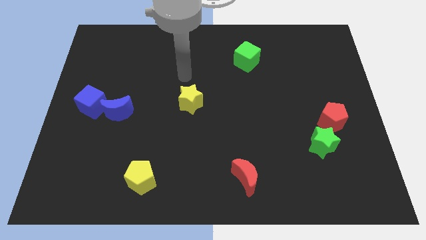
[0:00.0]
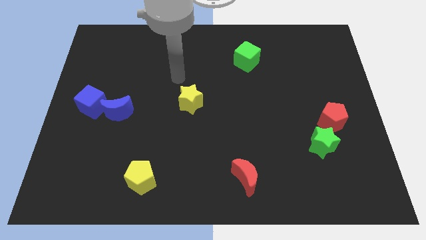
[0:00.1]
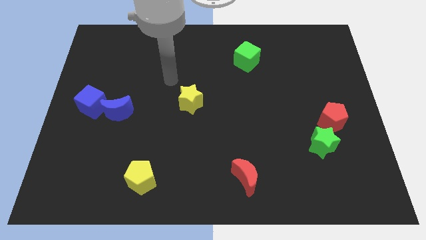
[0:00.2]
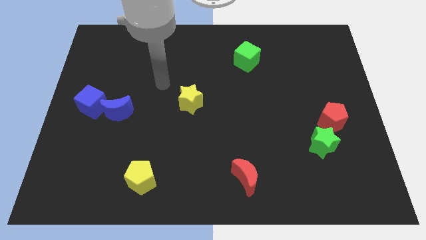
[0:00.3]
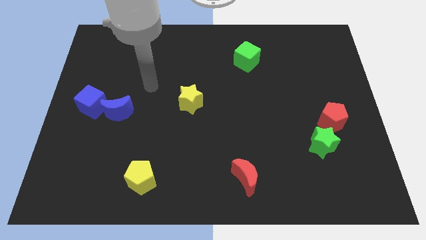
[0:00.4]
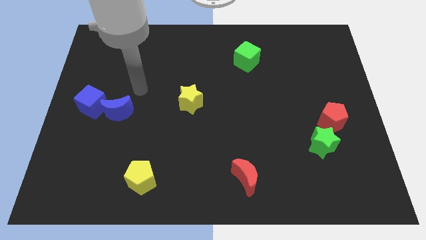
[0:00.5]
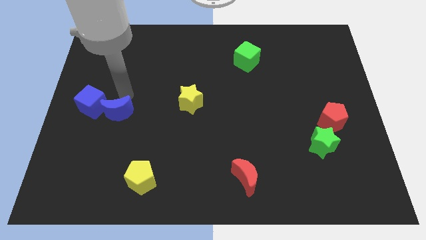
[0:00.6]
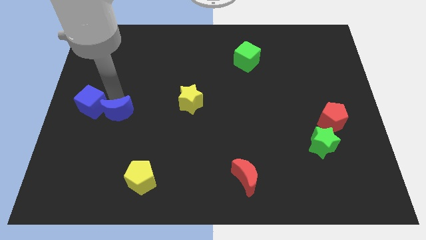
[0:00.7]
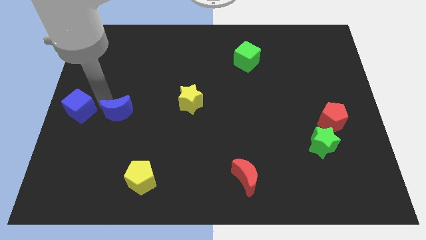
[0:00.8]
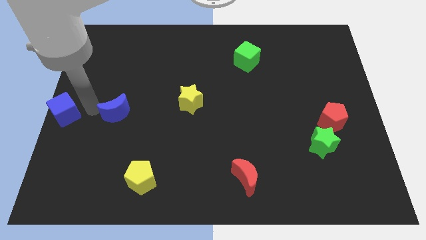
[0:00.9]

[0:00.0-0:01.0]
separate the blue moon from the blue cube

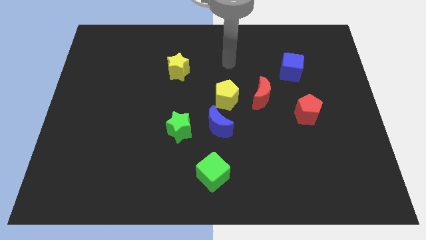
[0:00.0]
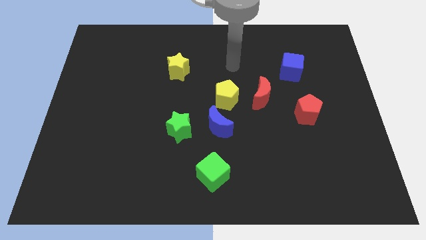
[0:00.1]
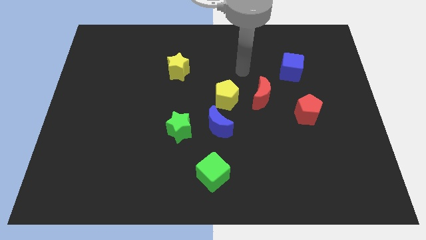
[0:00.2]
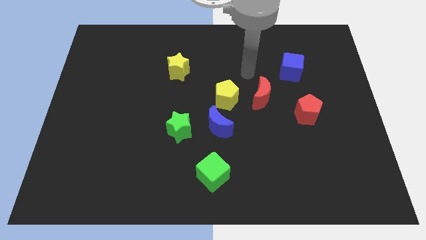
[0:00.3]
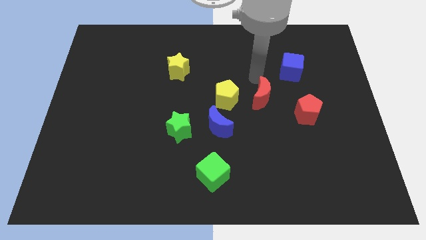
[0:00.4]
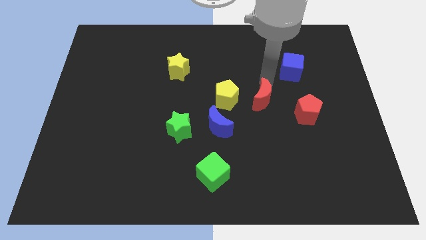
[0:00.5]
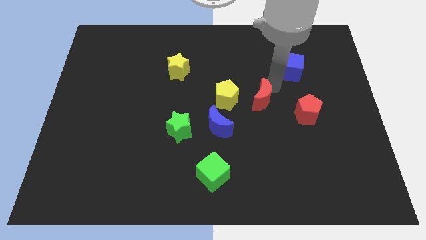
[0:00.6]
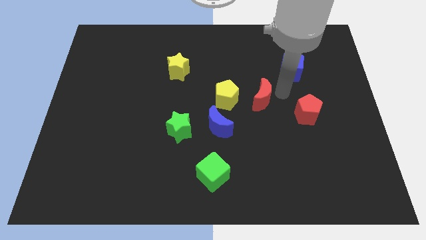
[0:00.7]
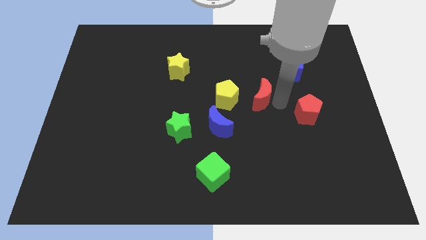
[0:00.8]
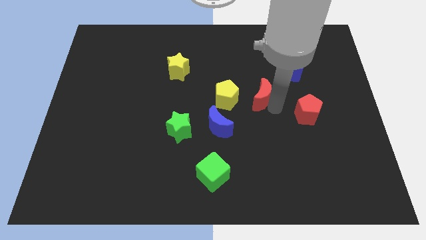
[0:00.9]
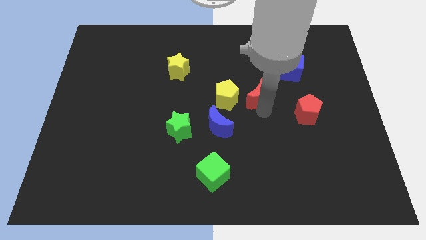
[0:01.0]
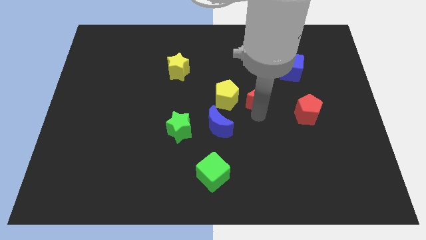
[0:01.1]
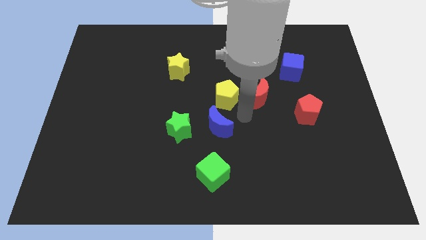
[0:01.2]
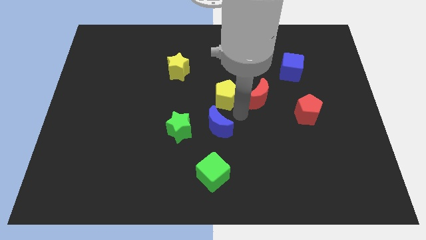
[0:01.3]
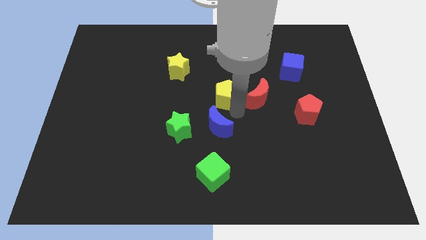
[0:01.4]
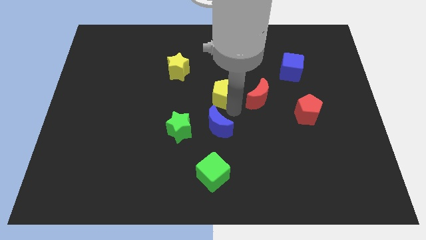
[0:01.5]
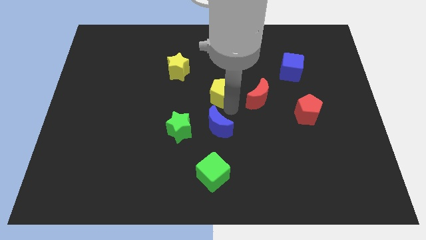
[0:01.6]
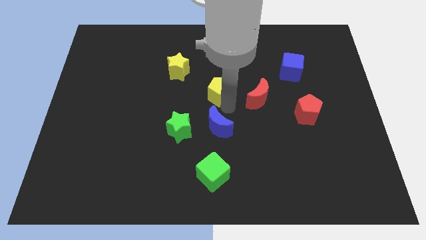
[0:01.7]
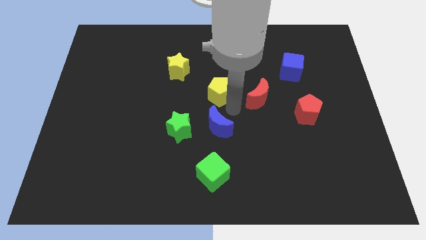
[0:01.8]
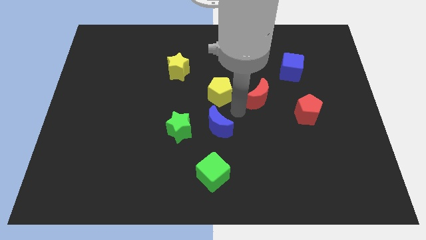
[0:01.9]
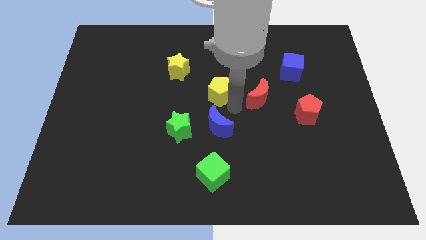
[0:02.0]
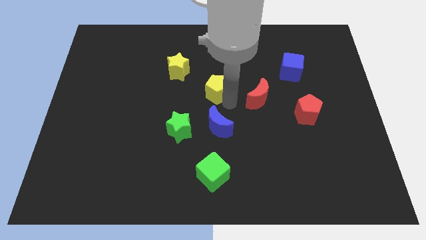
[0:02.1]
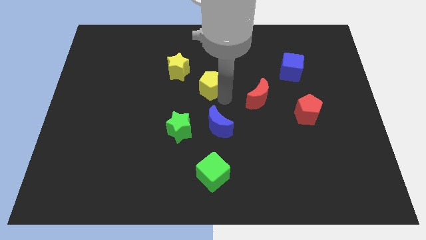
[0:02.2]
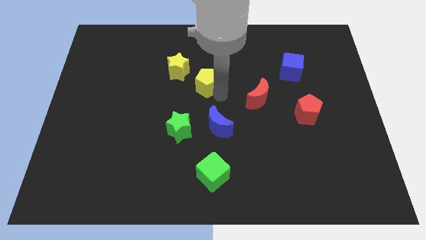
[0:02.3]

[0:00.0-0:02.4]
pull the yellow pentagon apart from the blue moon and red moon

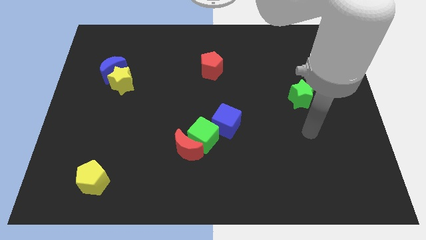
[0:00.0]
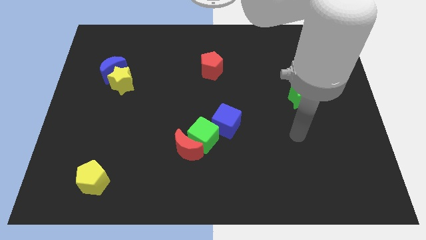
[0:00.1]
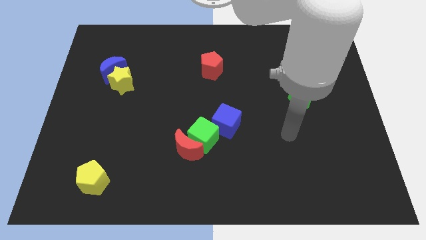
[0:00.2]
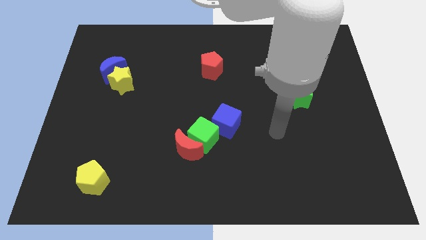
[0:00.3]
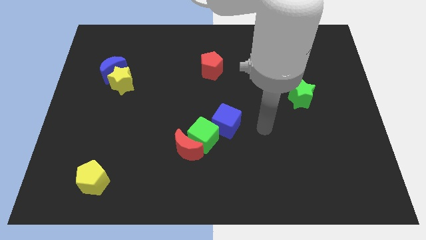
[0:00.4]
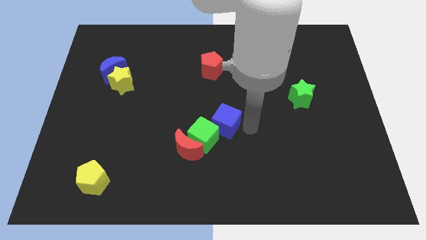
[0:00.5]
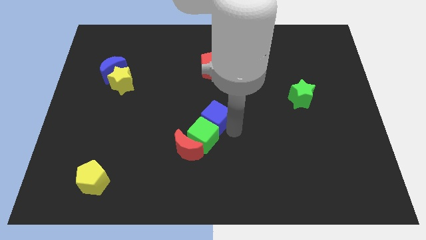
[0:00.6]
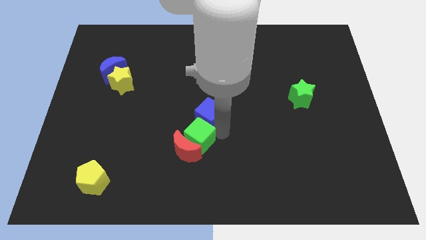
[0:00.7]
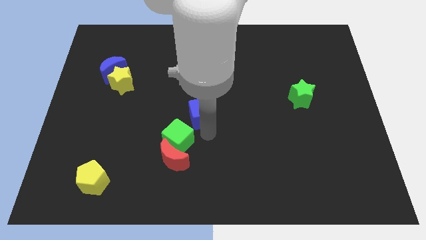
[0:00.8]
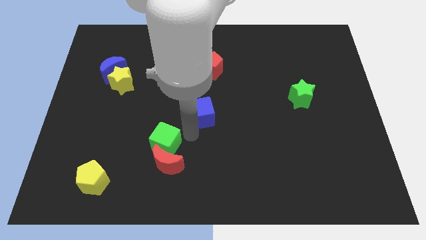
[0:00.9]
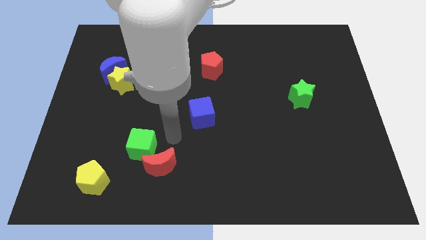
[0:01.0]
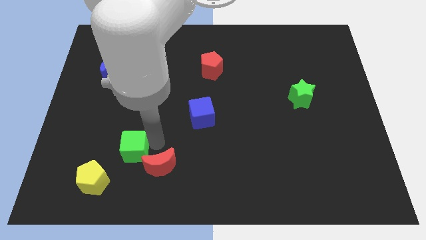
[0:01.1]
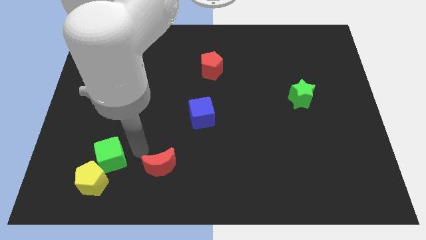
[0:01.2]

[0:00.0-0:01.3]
pull the red moon apart from the green cube

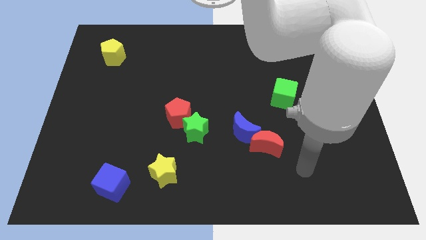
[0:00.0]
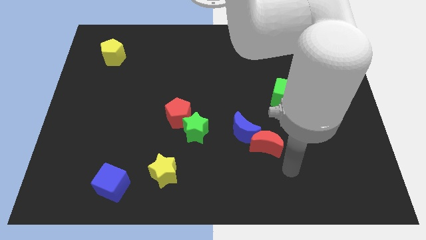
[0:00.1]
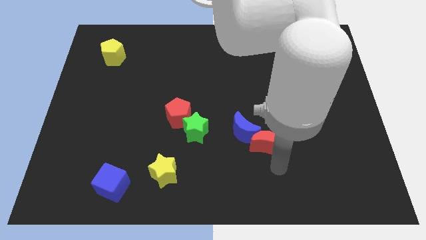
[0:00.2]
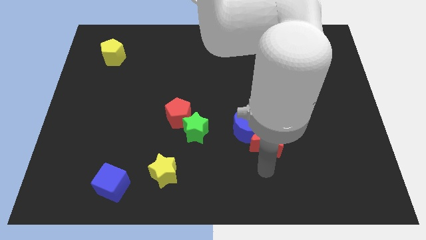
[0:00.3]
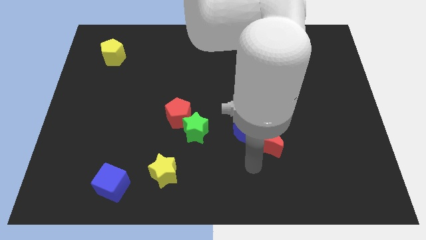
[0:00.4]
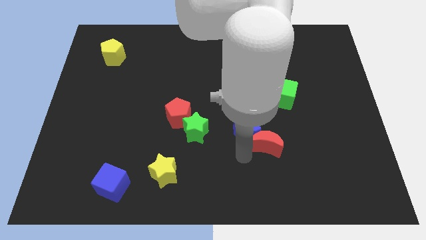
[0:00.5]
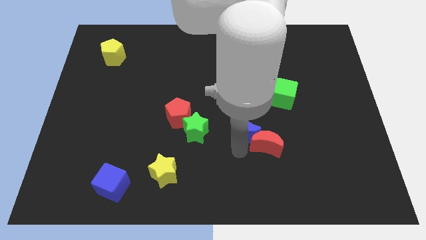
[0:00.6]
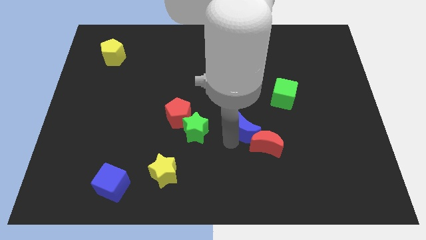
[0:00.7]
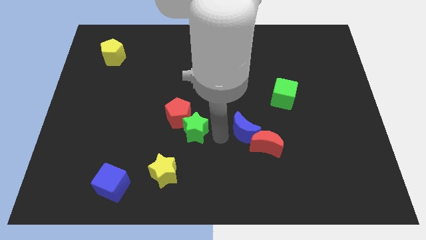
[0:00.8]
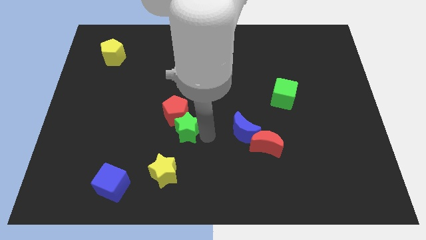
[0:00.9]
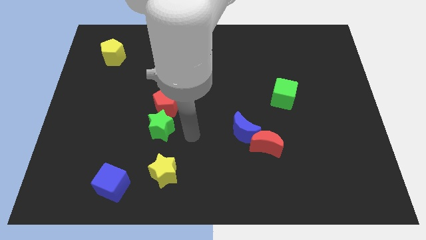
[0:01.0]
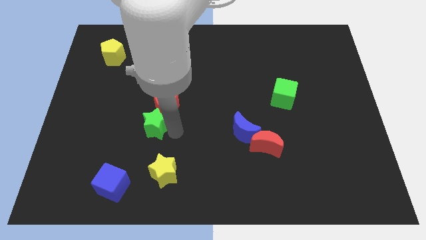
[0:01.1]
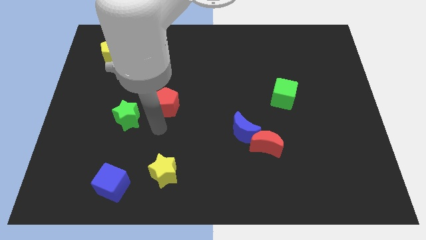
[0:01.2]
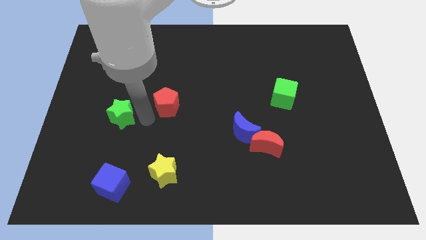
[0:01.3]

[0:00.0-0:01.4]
separate the red pentagon from the green star

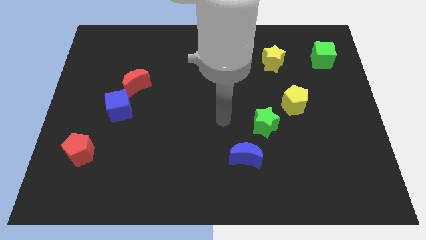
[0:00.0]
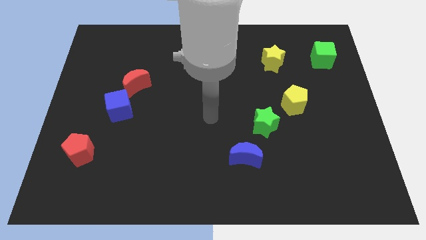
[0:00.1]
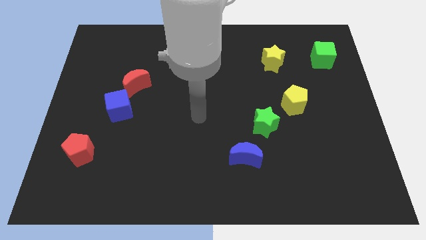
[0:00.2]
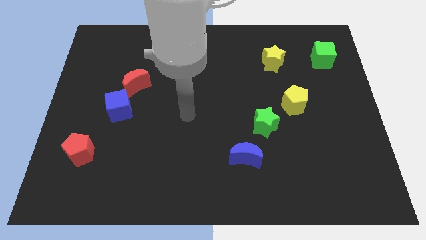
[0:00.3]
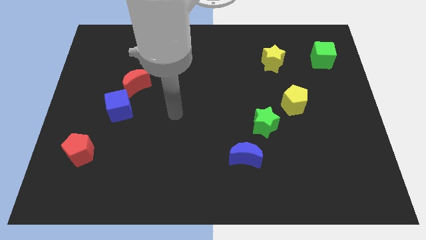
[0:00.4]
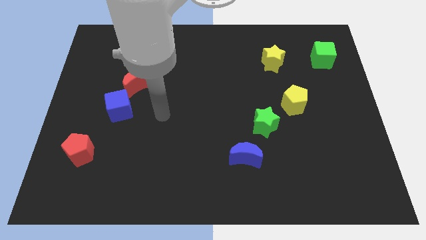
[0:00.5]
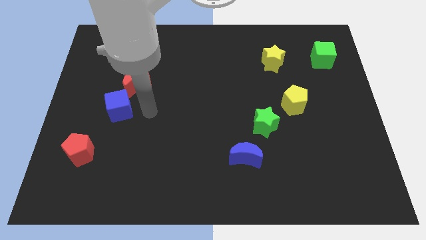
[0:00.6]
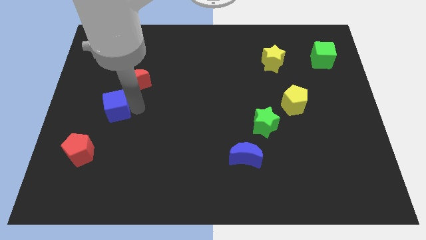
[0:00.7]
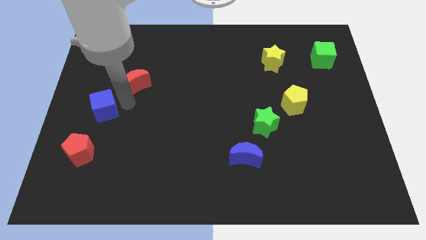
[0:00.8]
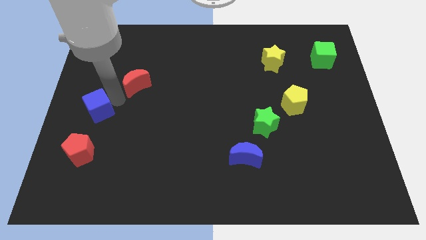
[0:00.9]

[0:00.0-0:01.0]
separate the red moon from the blue cube

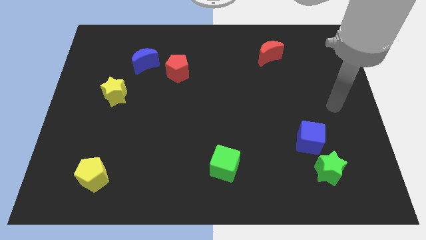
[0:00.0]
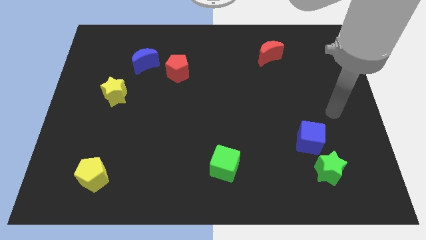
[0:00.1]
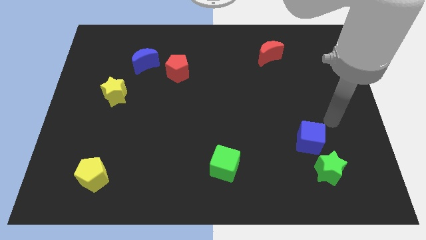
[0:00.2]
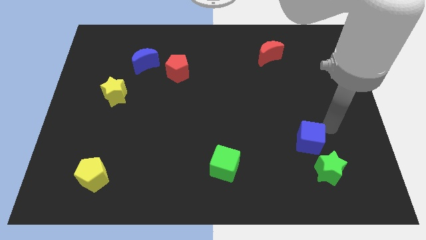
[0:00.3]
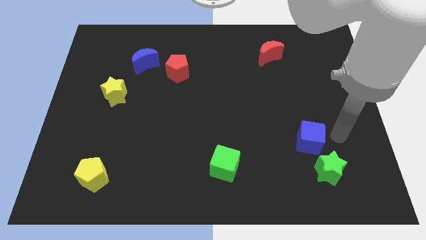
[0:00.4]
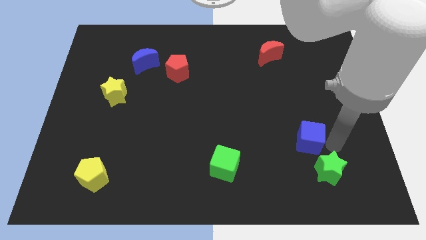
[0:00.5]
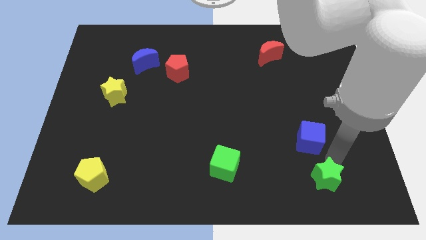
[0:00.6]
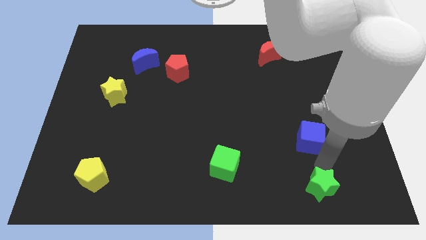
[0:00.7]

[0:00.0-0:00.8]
move the blue cube away from the green star

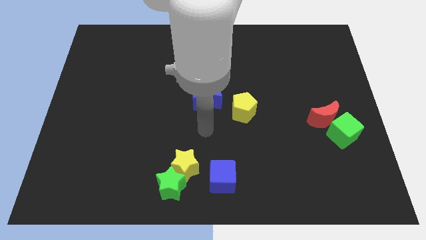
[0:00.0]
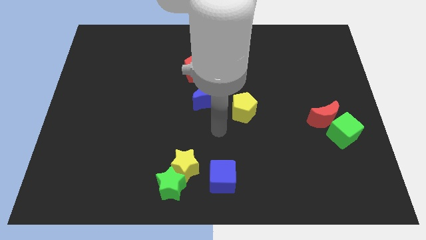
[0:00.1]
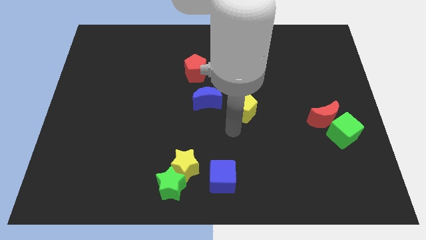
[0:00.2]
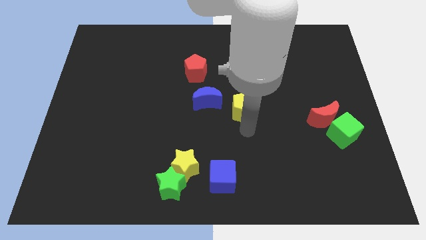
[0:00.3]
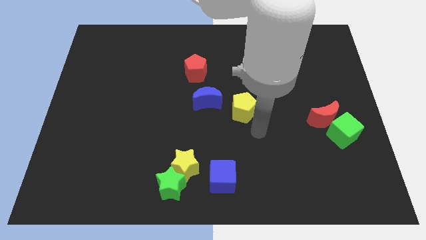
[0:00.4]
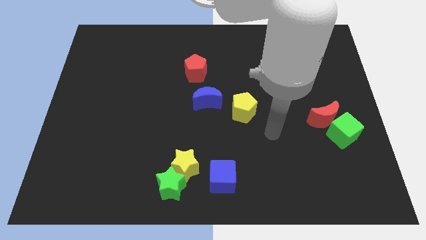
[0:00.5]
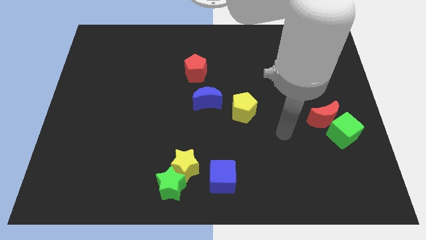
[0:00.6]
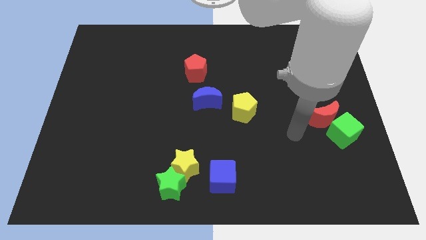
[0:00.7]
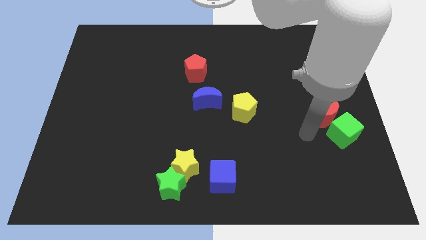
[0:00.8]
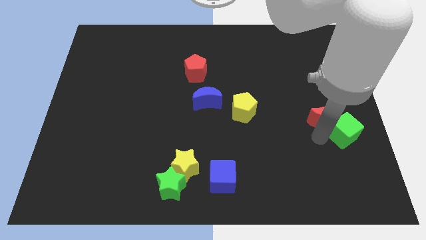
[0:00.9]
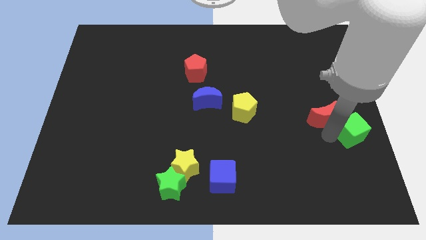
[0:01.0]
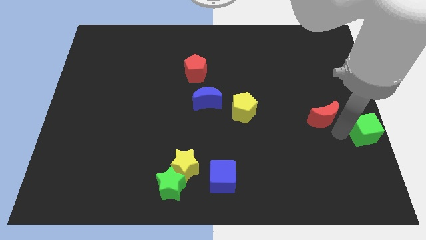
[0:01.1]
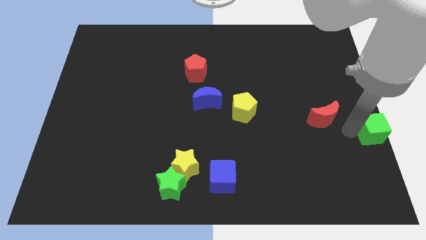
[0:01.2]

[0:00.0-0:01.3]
separate the red moon from the green cube

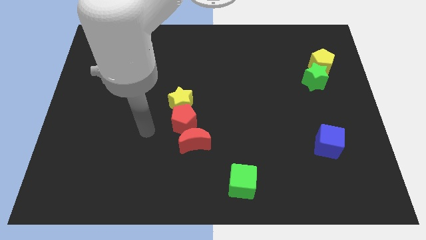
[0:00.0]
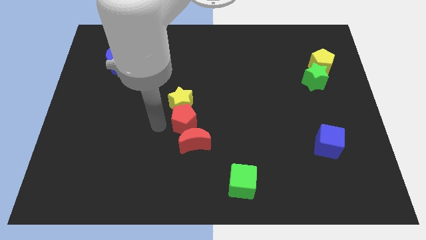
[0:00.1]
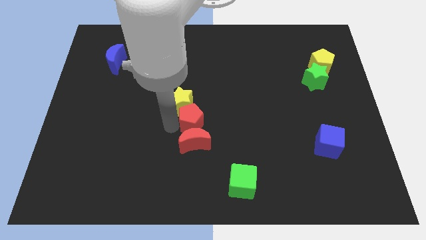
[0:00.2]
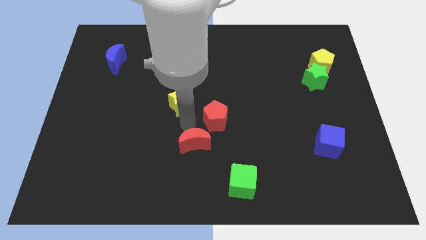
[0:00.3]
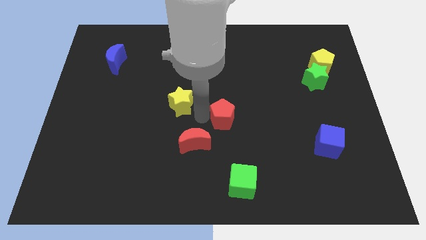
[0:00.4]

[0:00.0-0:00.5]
move the yellow star away from the red pentagon
